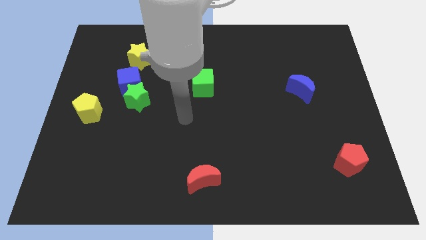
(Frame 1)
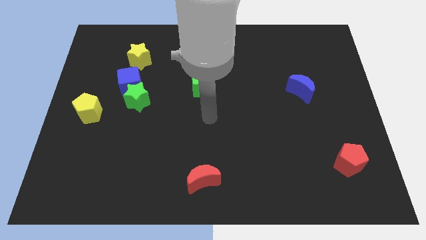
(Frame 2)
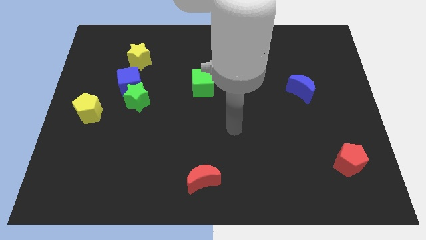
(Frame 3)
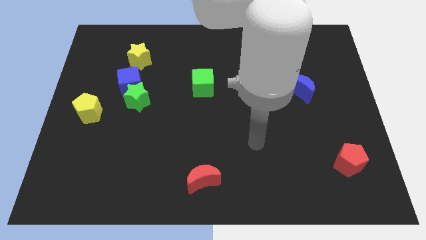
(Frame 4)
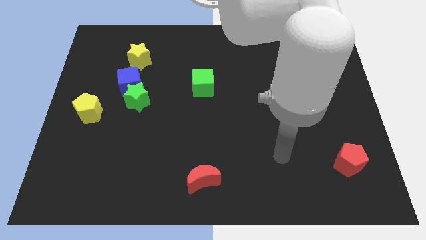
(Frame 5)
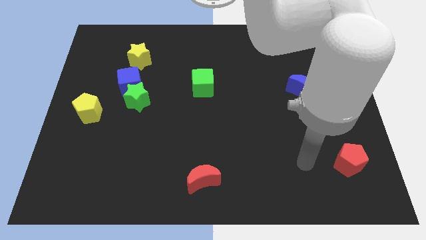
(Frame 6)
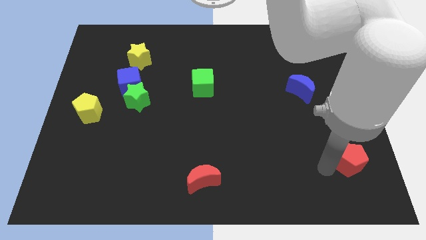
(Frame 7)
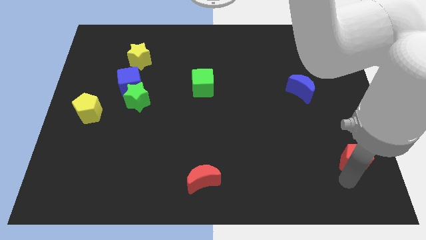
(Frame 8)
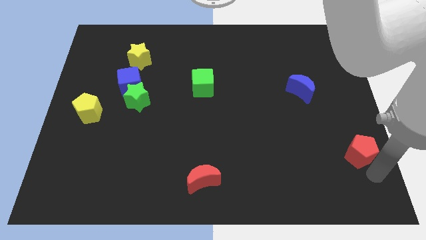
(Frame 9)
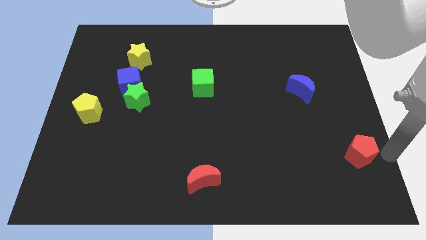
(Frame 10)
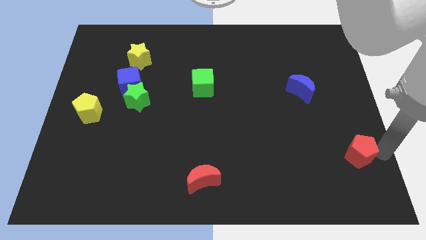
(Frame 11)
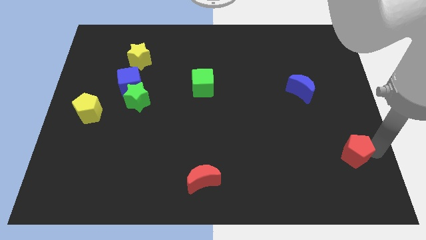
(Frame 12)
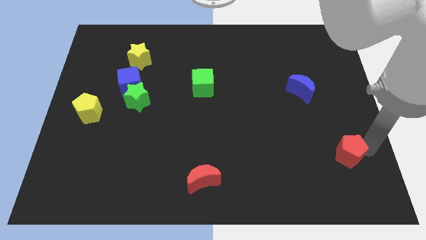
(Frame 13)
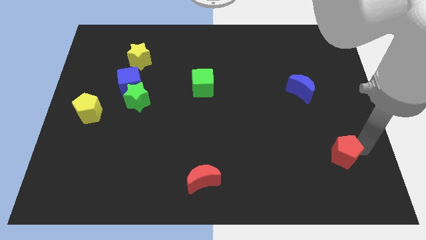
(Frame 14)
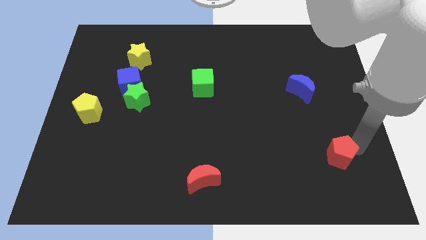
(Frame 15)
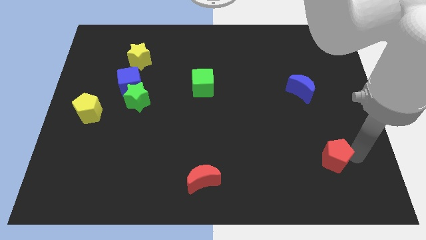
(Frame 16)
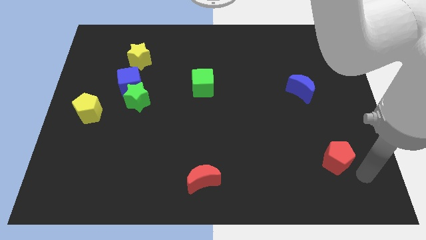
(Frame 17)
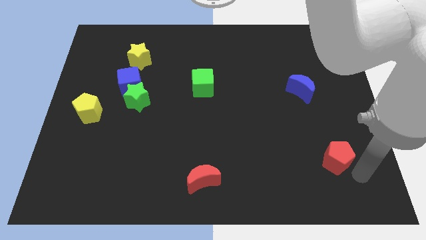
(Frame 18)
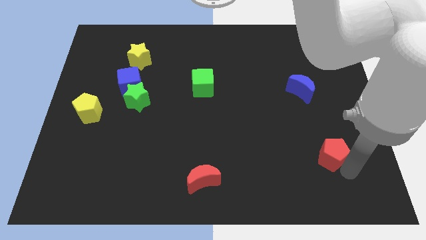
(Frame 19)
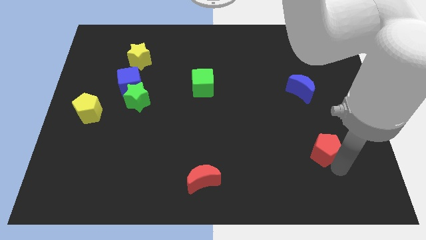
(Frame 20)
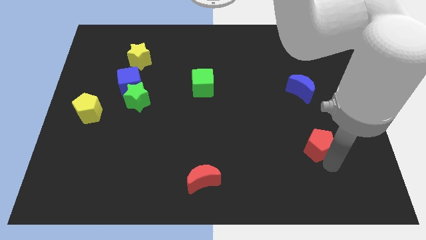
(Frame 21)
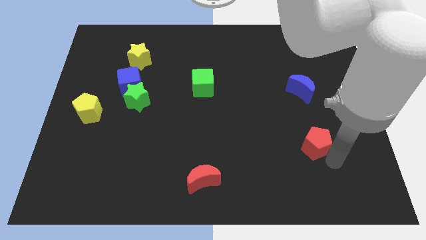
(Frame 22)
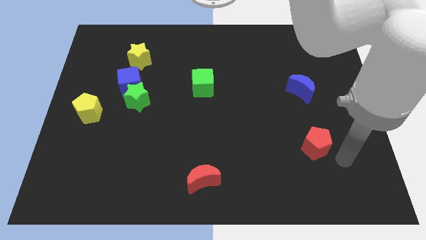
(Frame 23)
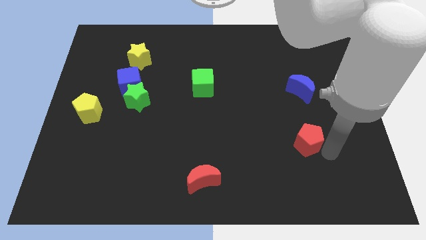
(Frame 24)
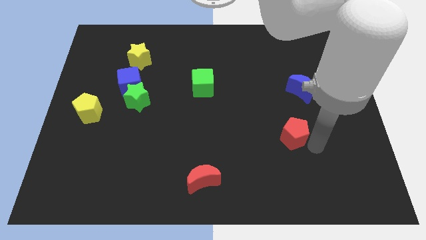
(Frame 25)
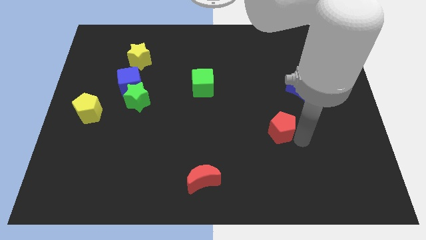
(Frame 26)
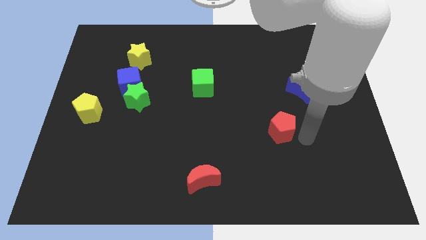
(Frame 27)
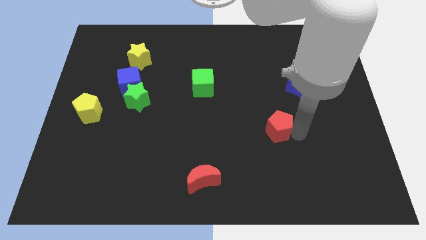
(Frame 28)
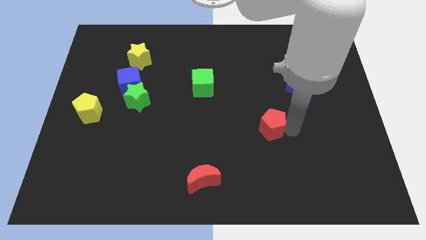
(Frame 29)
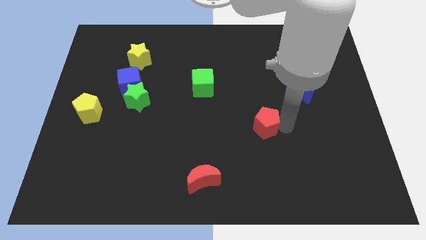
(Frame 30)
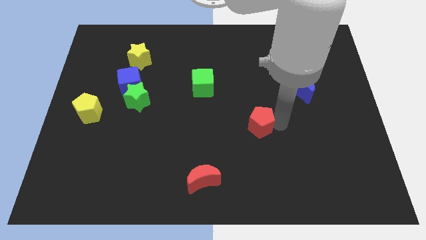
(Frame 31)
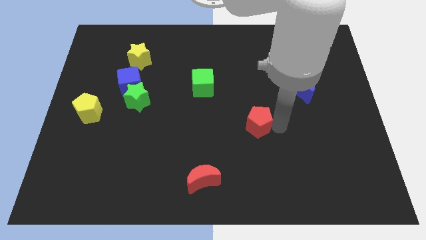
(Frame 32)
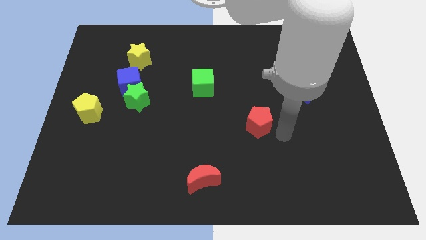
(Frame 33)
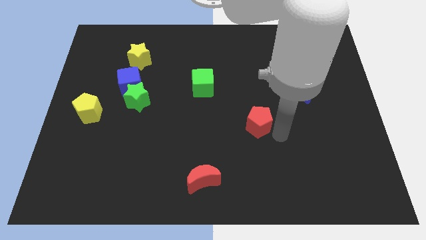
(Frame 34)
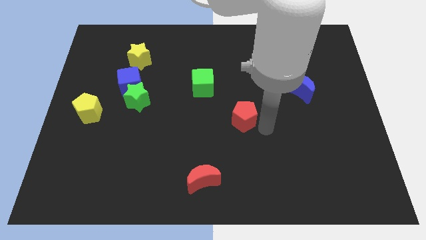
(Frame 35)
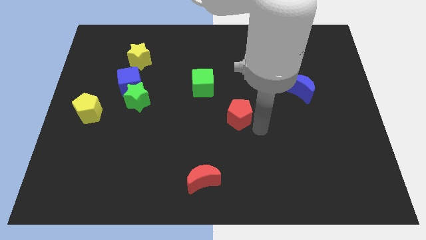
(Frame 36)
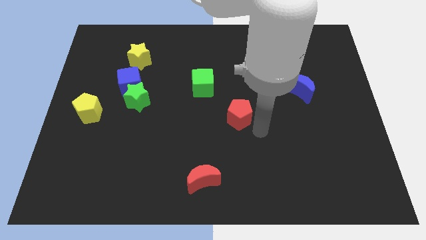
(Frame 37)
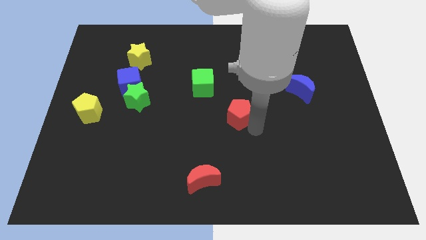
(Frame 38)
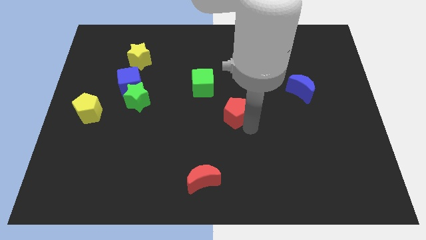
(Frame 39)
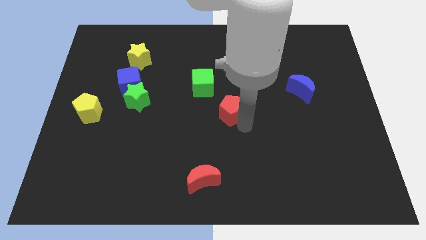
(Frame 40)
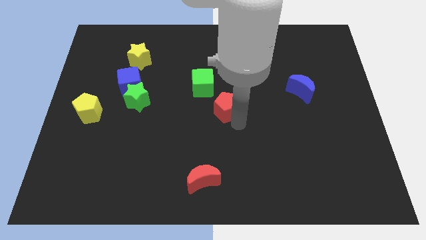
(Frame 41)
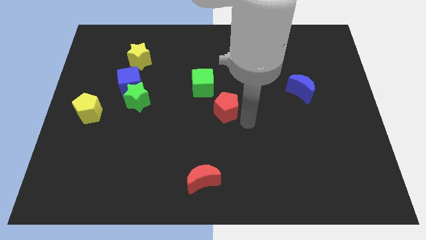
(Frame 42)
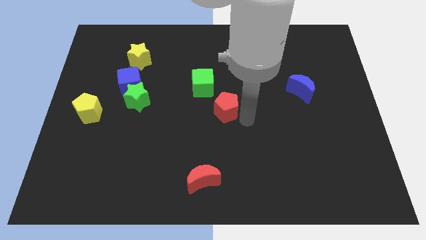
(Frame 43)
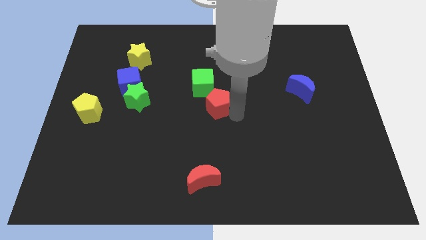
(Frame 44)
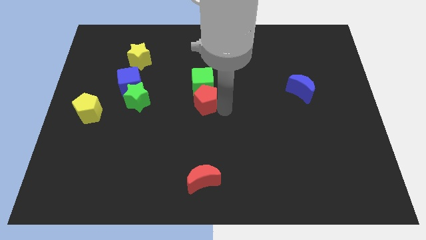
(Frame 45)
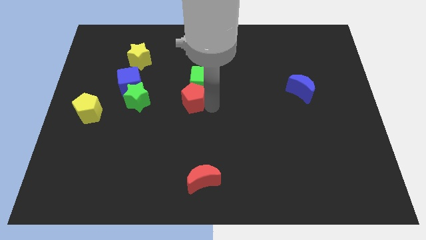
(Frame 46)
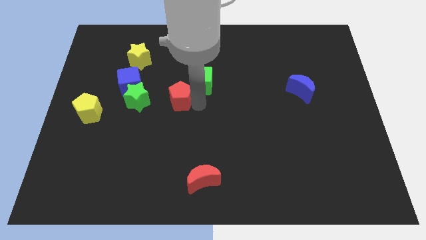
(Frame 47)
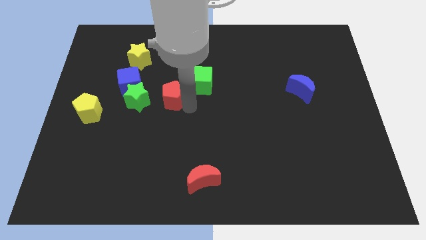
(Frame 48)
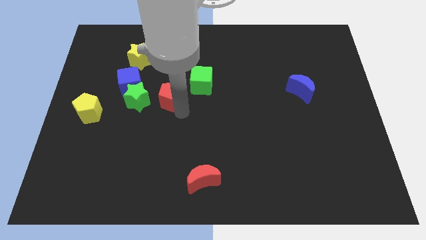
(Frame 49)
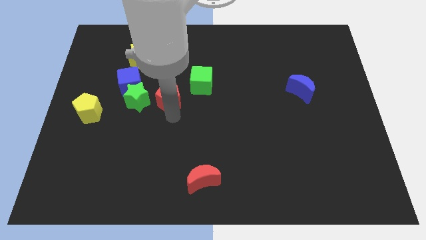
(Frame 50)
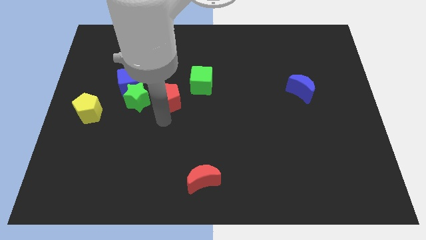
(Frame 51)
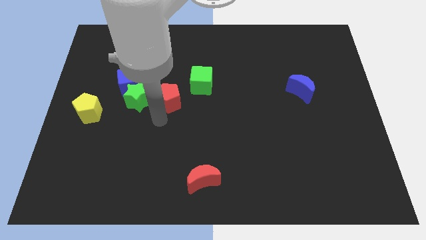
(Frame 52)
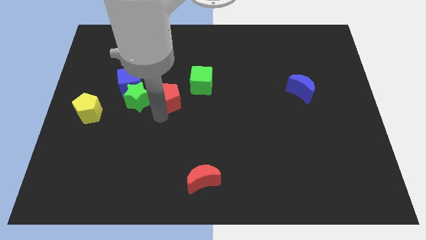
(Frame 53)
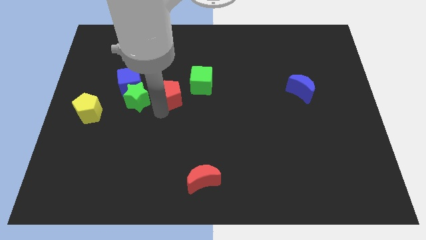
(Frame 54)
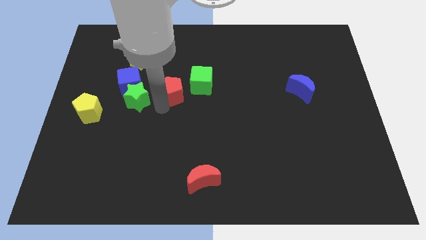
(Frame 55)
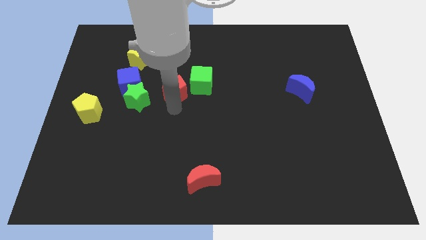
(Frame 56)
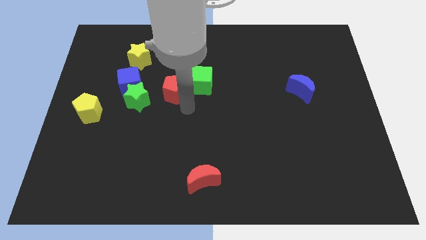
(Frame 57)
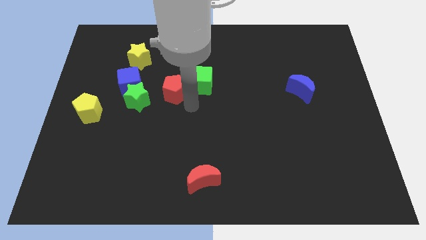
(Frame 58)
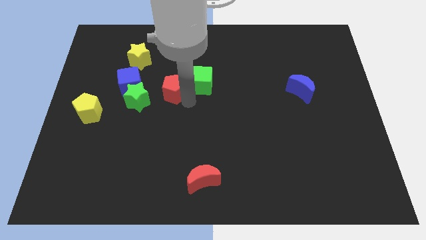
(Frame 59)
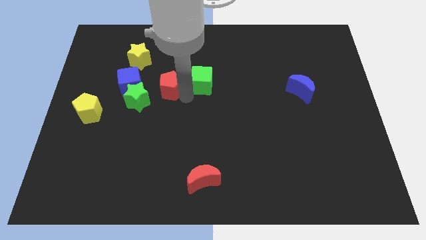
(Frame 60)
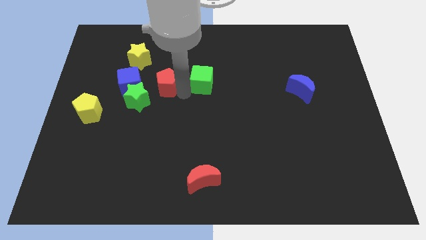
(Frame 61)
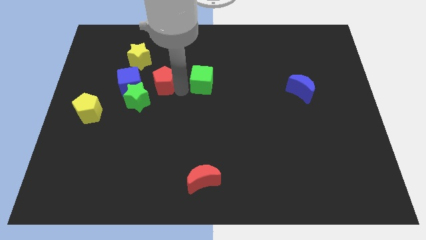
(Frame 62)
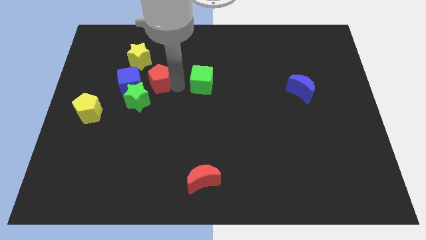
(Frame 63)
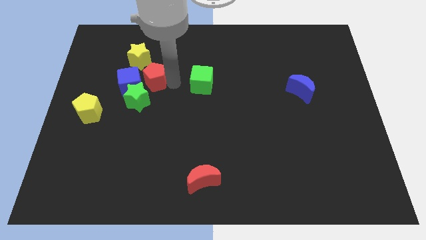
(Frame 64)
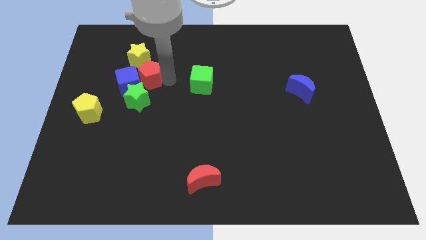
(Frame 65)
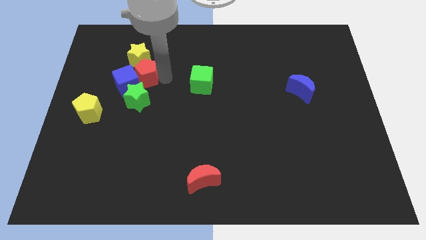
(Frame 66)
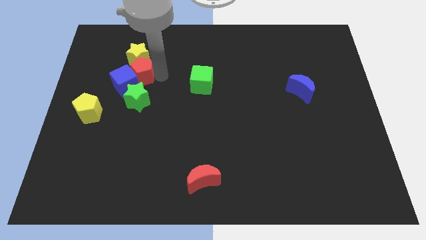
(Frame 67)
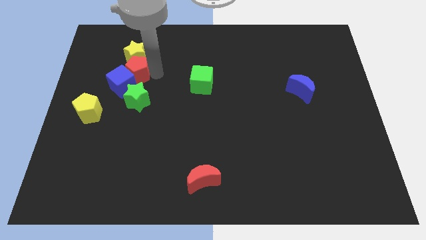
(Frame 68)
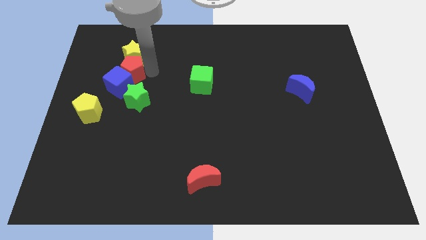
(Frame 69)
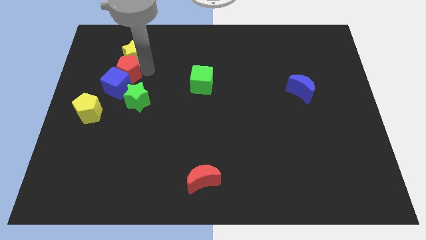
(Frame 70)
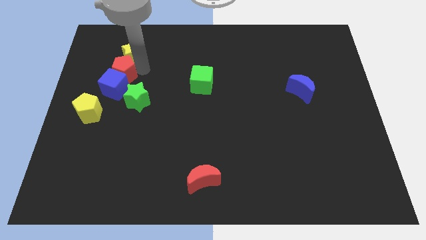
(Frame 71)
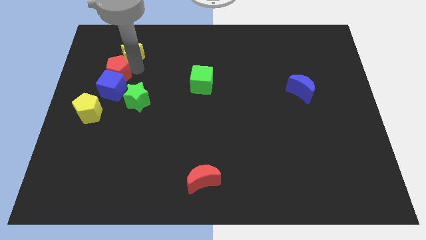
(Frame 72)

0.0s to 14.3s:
move the red pentagon to the top side of the yellow pentagon

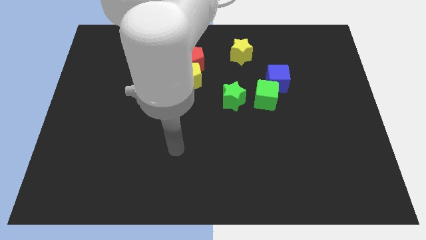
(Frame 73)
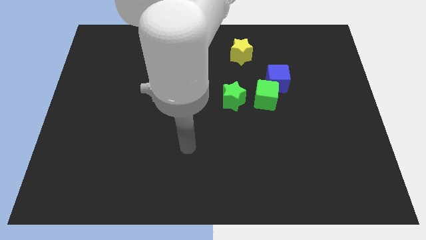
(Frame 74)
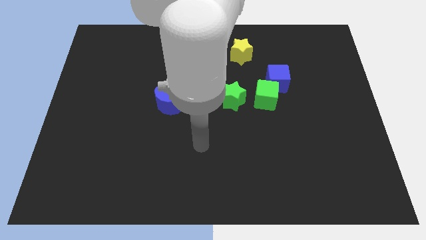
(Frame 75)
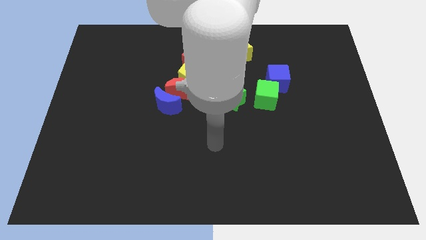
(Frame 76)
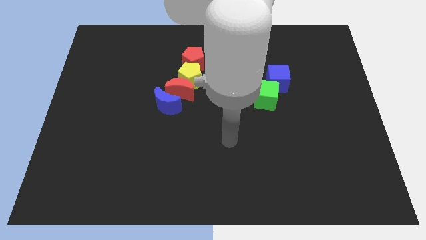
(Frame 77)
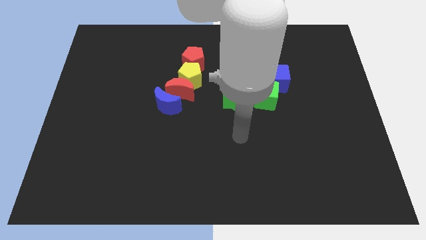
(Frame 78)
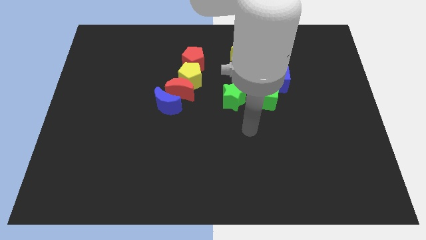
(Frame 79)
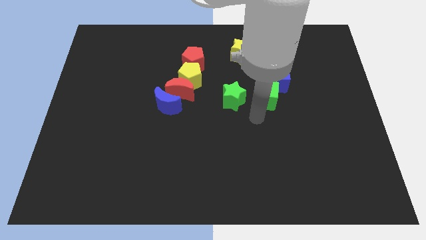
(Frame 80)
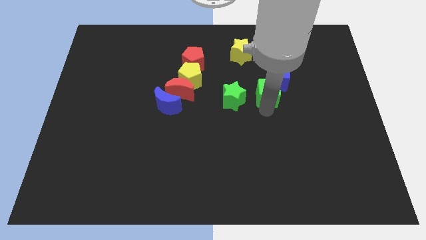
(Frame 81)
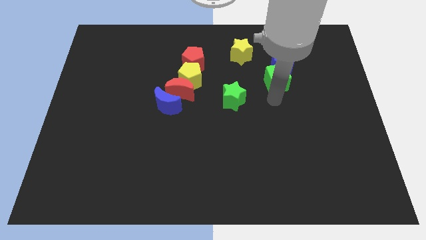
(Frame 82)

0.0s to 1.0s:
put the blue cube to the right of the yellow star
